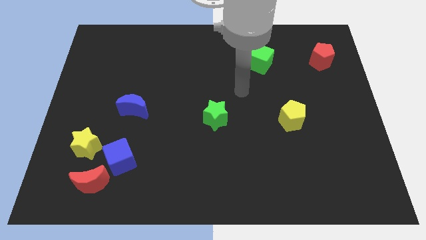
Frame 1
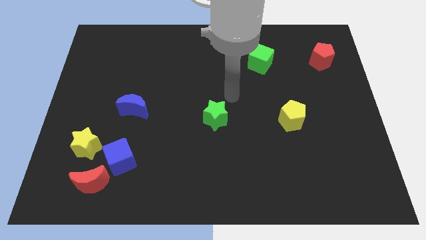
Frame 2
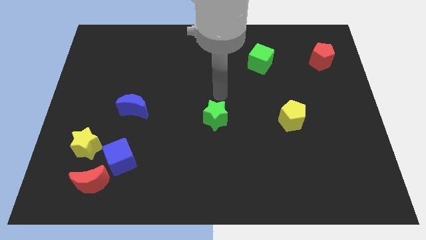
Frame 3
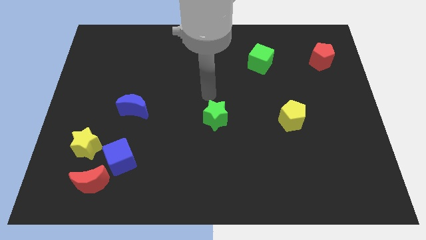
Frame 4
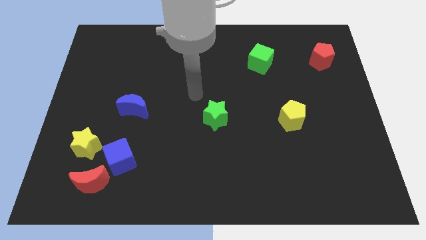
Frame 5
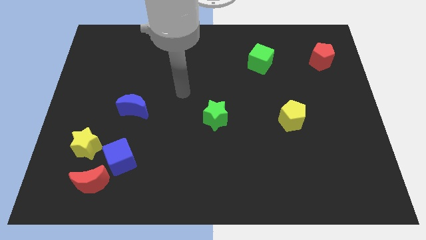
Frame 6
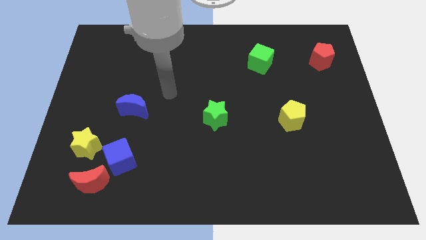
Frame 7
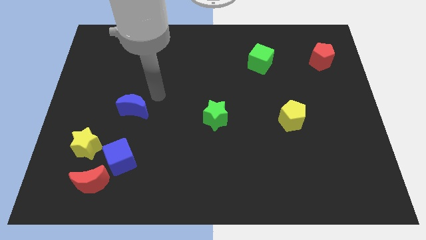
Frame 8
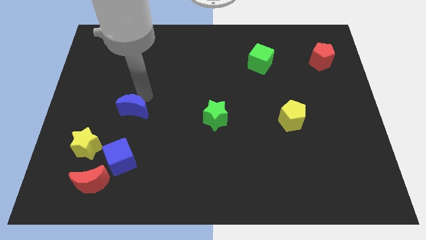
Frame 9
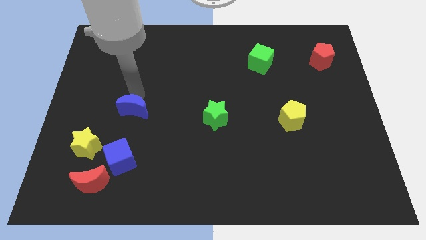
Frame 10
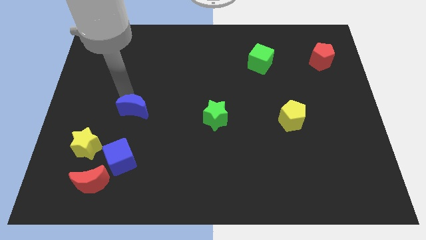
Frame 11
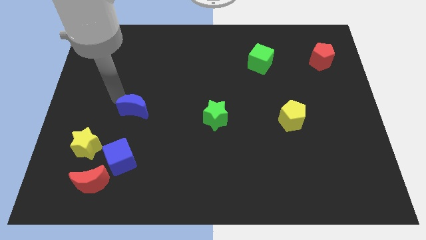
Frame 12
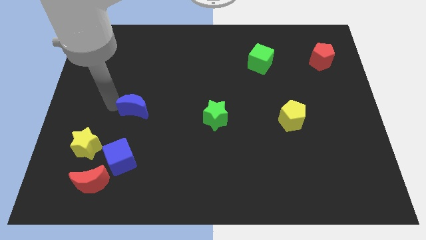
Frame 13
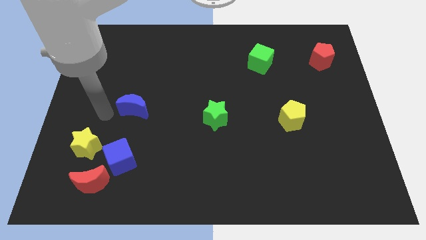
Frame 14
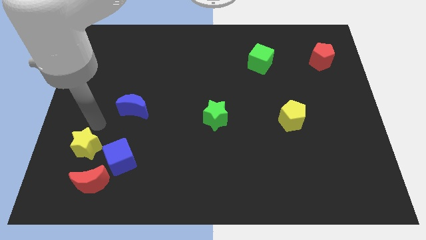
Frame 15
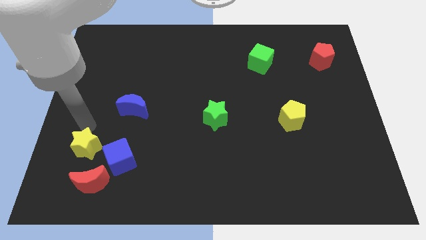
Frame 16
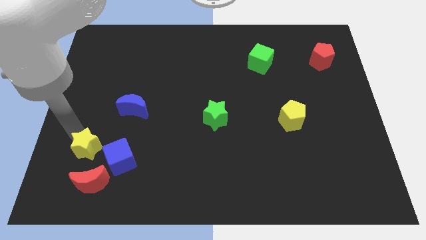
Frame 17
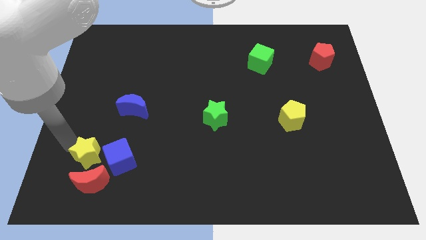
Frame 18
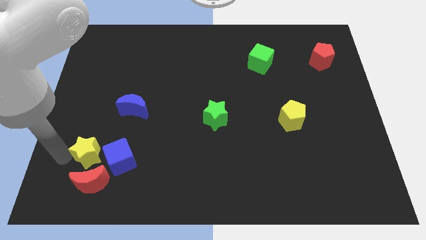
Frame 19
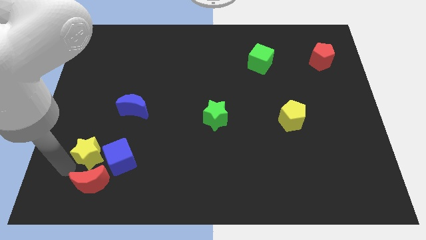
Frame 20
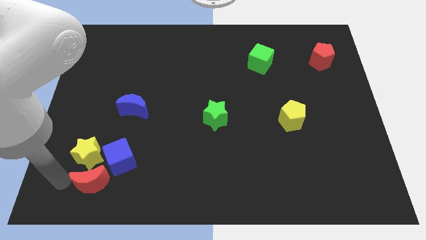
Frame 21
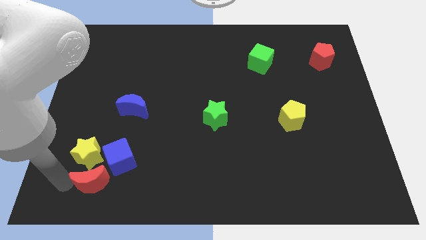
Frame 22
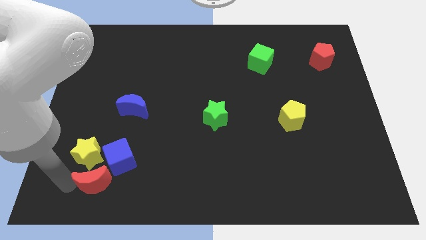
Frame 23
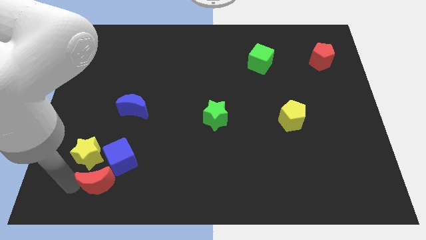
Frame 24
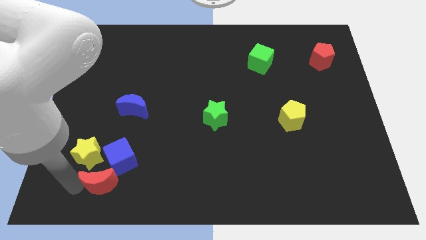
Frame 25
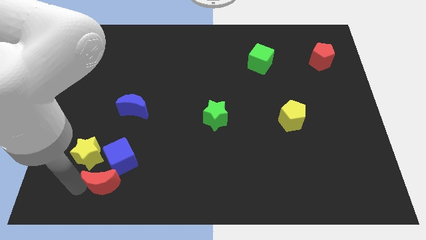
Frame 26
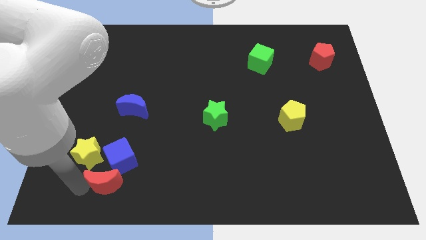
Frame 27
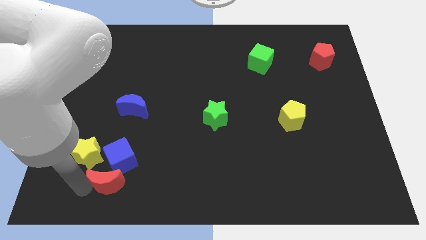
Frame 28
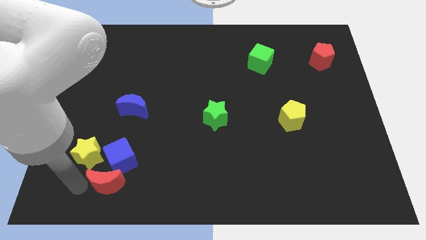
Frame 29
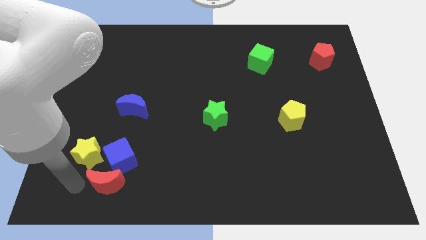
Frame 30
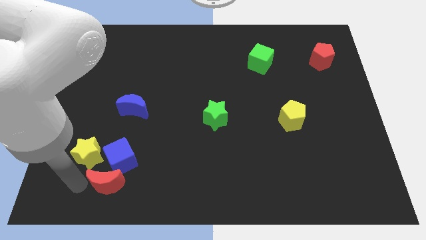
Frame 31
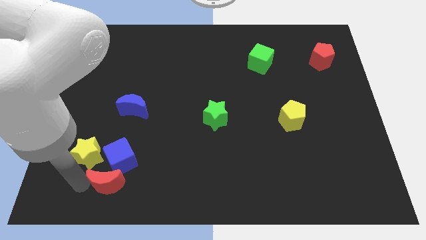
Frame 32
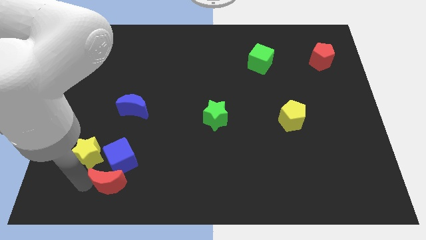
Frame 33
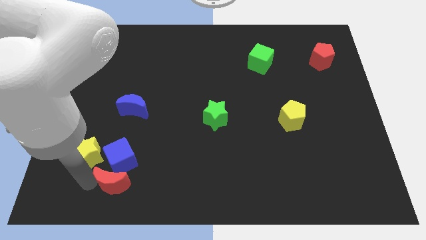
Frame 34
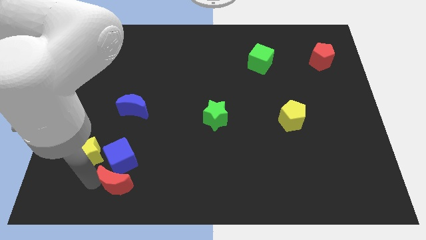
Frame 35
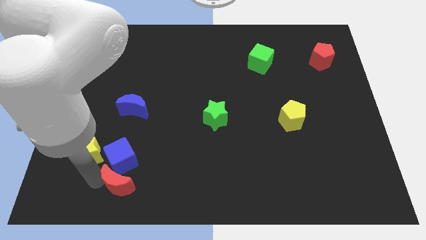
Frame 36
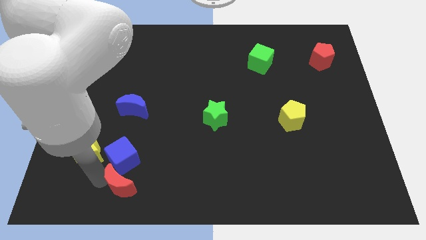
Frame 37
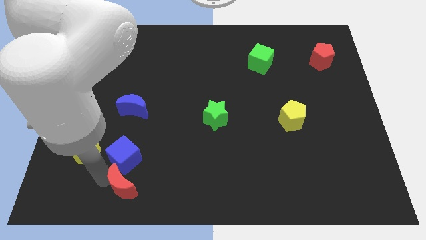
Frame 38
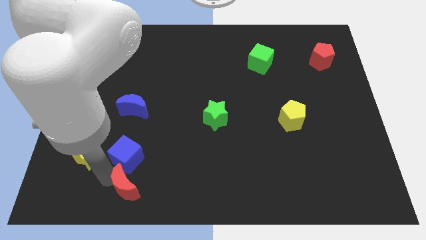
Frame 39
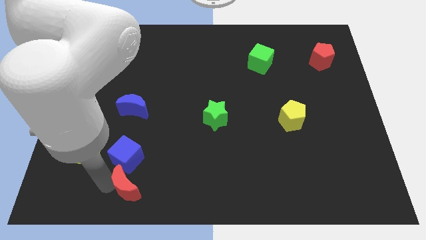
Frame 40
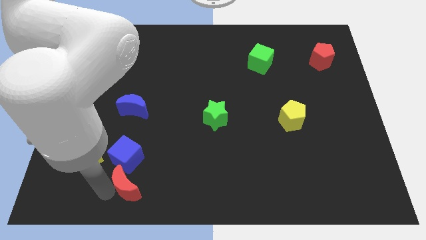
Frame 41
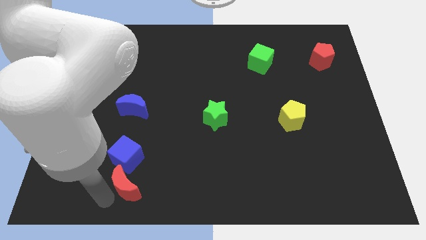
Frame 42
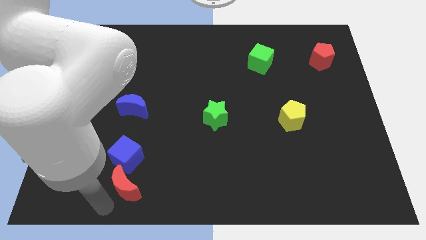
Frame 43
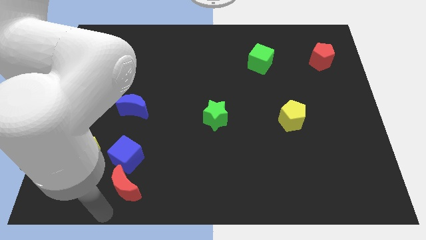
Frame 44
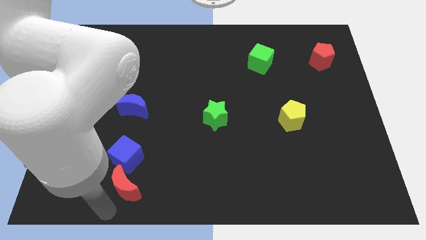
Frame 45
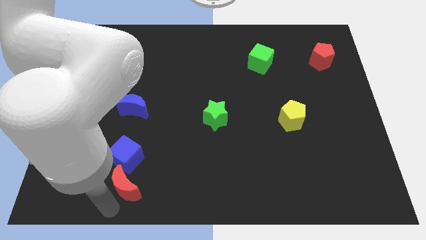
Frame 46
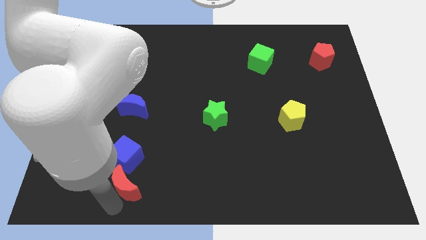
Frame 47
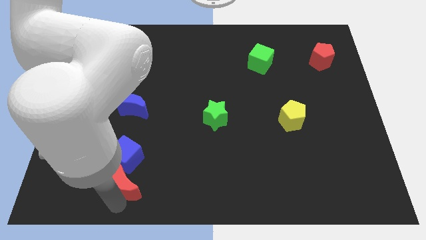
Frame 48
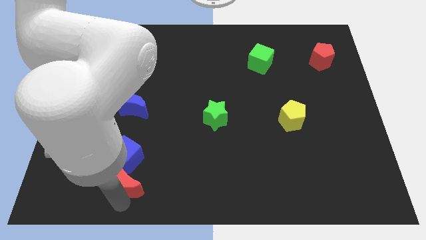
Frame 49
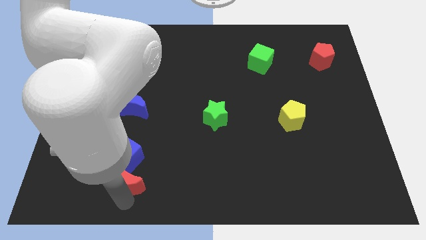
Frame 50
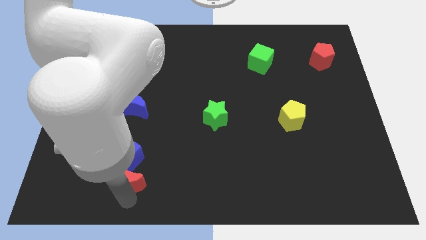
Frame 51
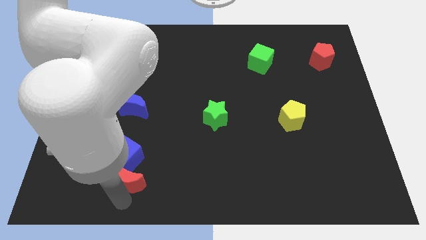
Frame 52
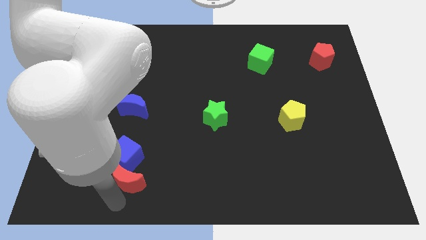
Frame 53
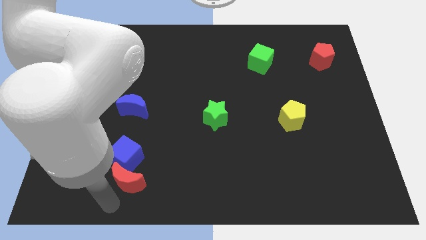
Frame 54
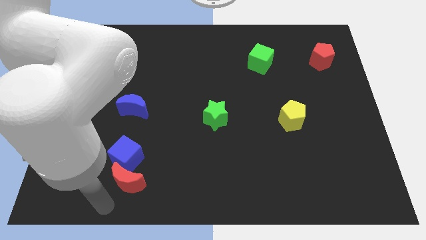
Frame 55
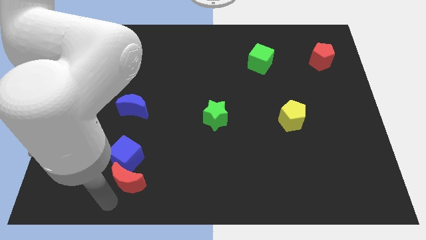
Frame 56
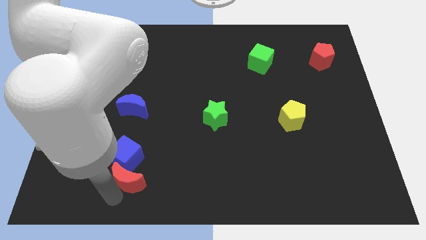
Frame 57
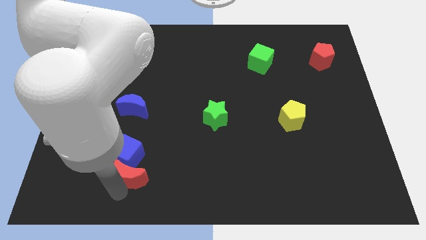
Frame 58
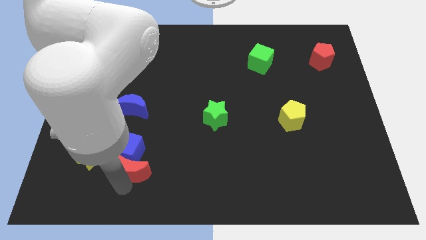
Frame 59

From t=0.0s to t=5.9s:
slide the red moon diagonally up and to the right a bit

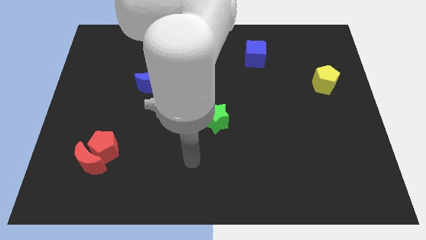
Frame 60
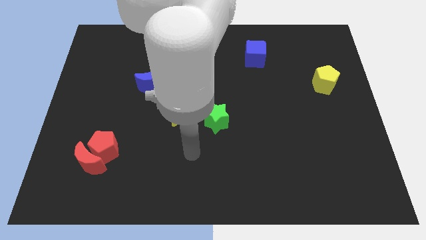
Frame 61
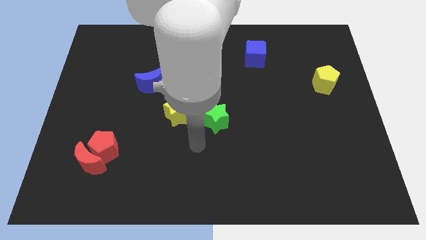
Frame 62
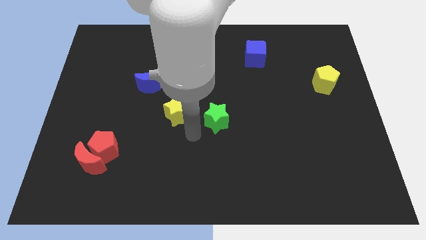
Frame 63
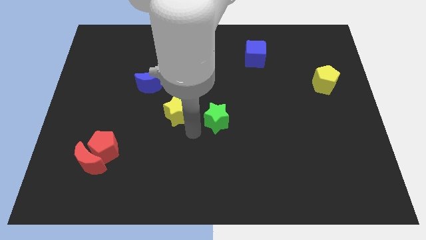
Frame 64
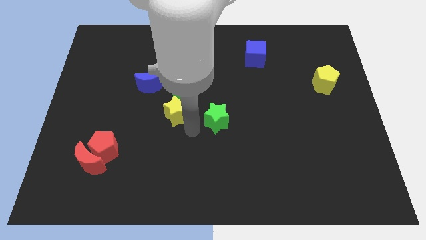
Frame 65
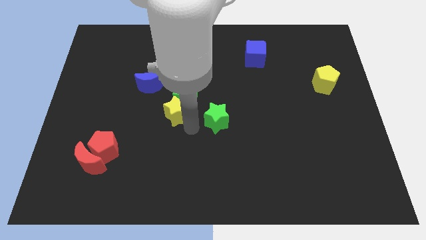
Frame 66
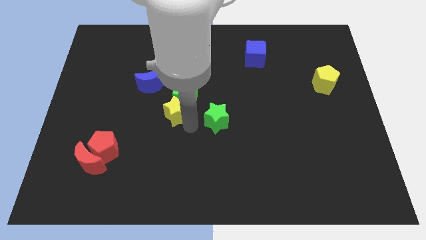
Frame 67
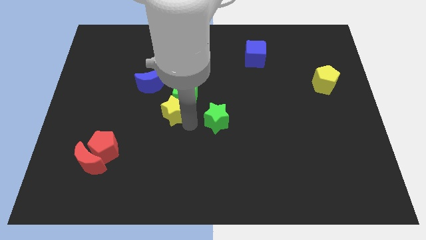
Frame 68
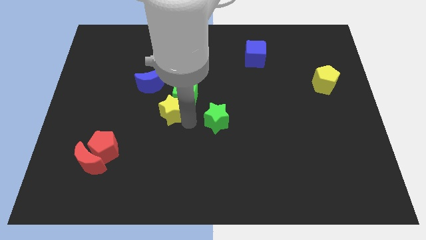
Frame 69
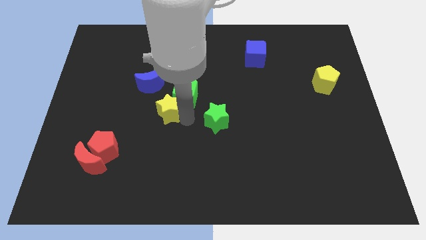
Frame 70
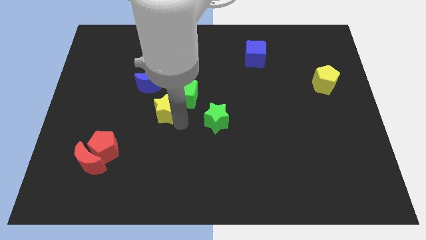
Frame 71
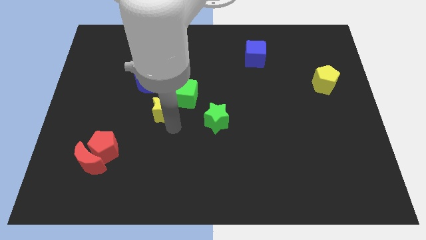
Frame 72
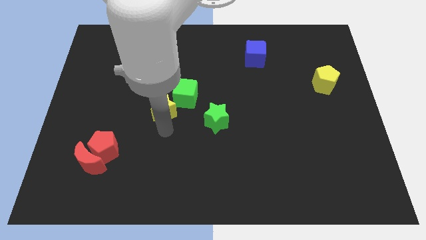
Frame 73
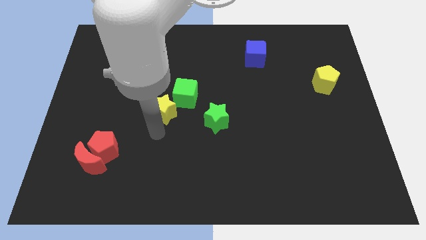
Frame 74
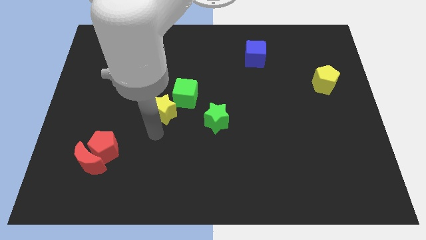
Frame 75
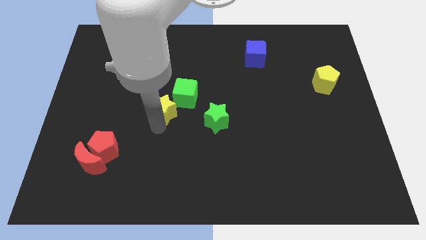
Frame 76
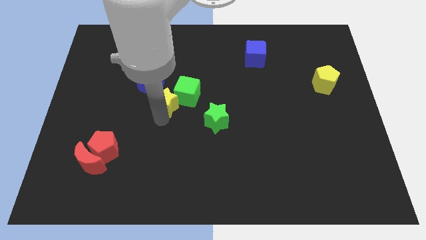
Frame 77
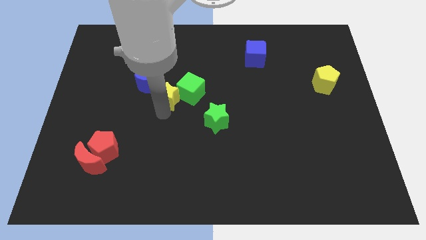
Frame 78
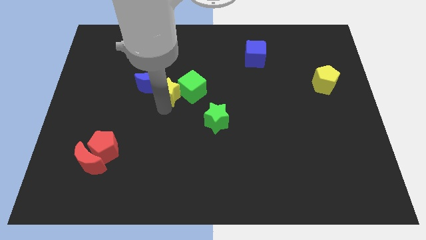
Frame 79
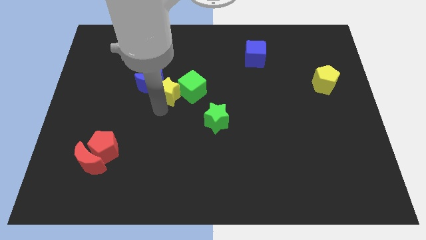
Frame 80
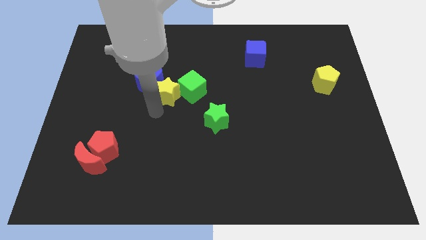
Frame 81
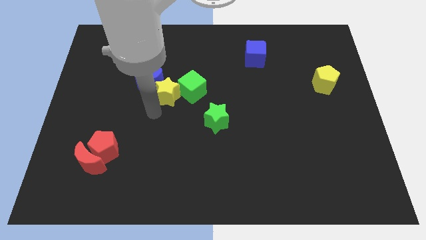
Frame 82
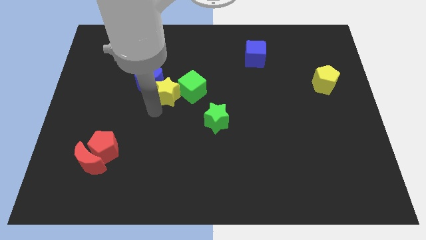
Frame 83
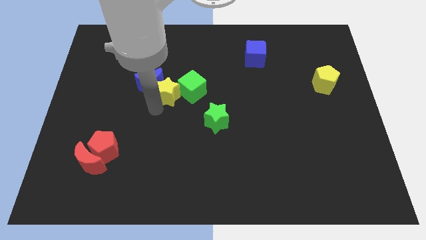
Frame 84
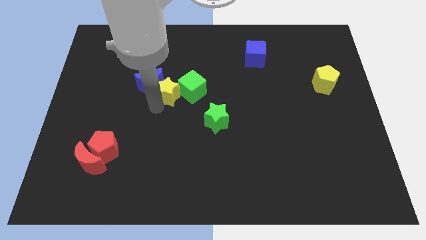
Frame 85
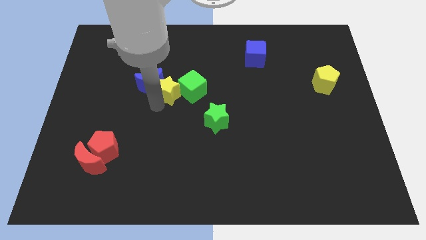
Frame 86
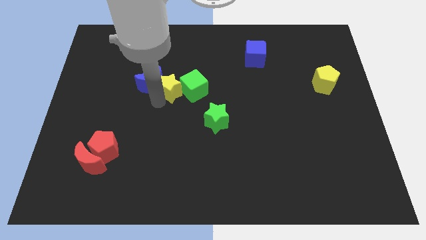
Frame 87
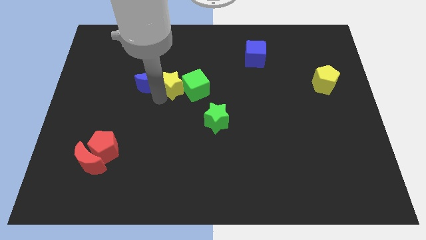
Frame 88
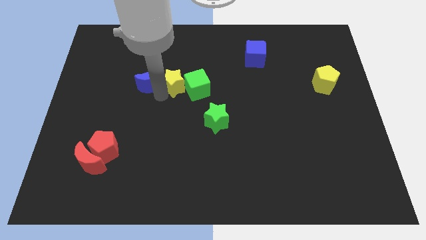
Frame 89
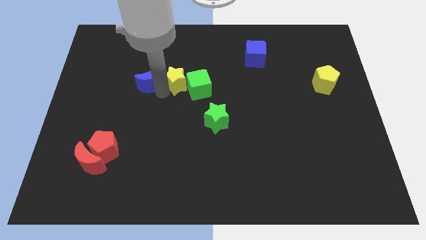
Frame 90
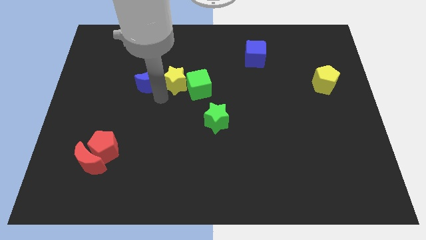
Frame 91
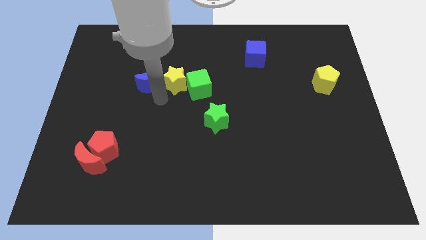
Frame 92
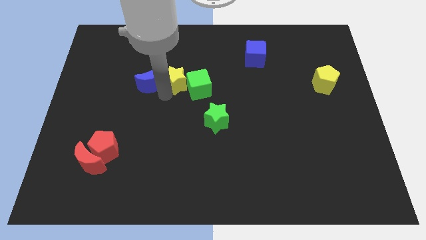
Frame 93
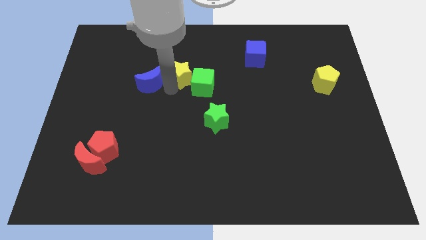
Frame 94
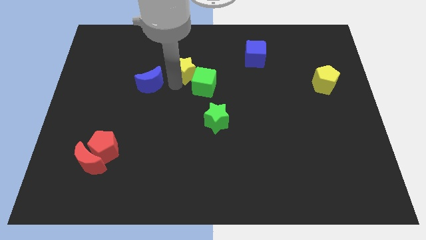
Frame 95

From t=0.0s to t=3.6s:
move the yellow star diagonally upwards and right a little bit
